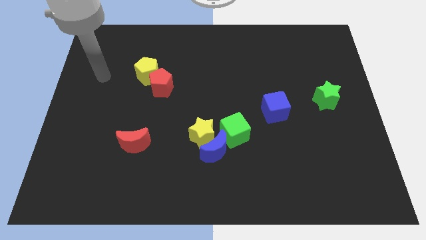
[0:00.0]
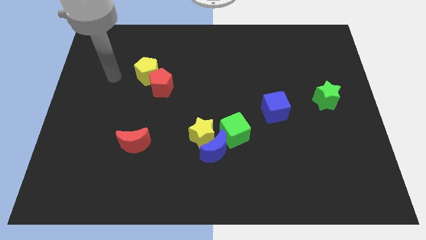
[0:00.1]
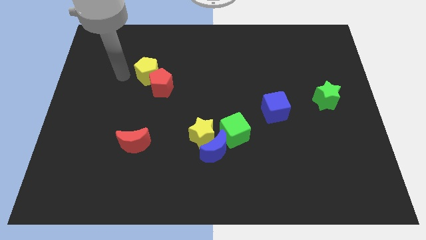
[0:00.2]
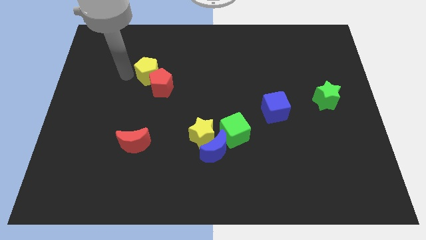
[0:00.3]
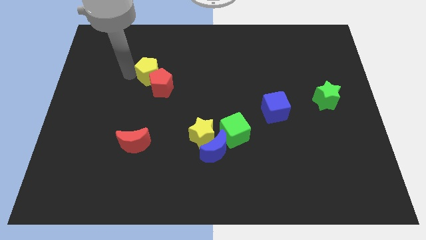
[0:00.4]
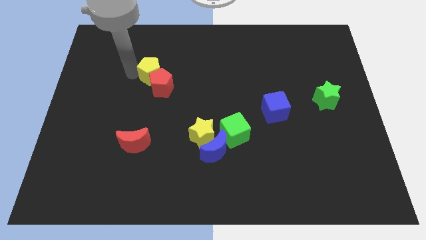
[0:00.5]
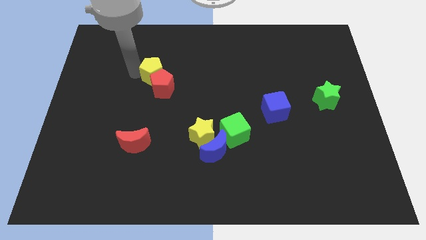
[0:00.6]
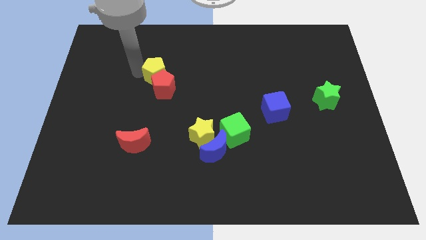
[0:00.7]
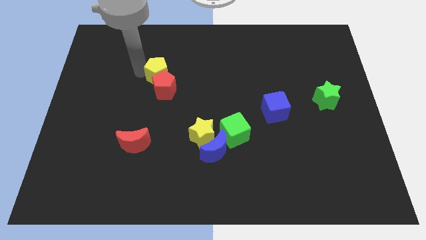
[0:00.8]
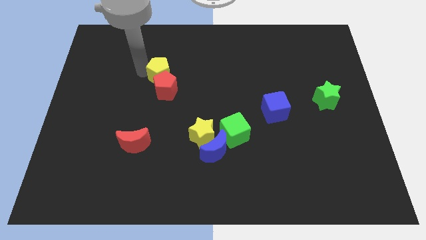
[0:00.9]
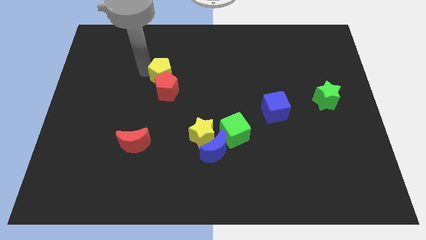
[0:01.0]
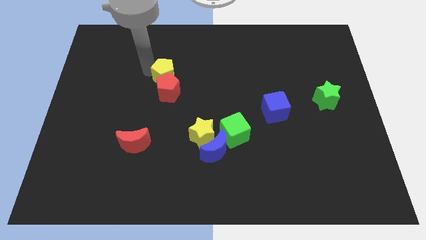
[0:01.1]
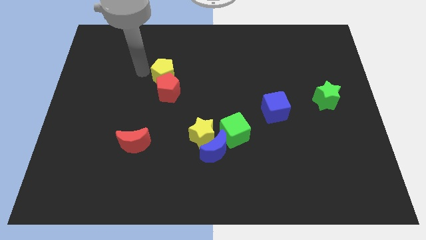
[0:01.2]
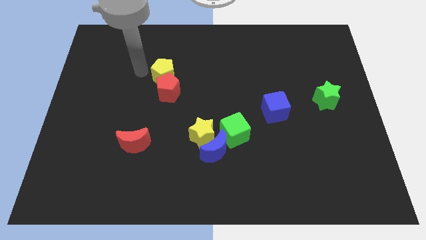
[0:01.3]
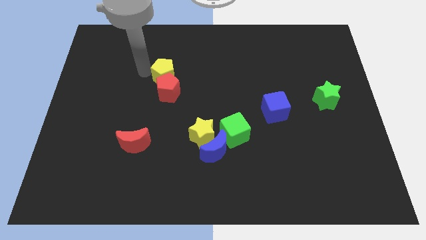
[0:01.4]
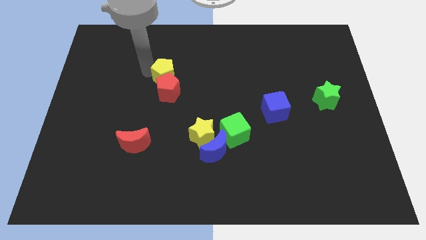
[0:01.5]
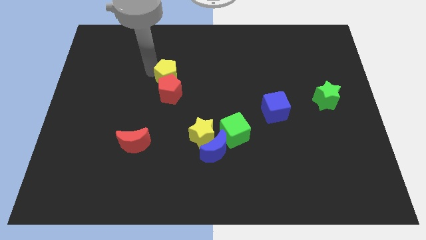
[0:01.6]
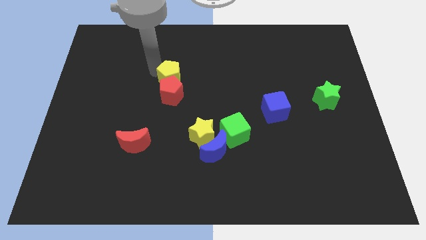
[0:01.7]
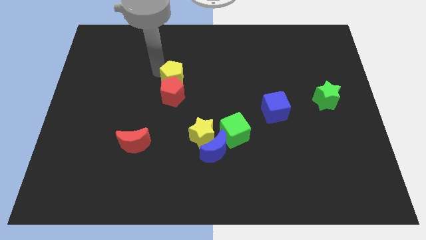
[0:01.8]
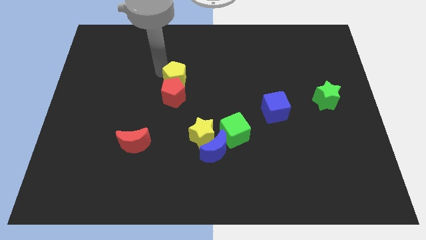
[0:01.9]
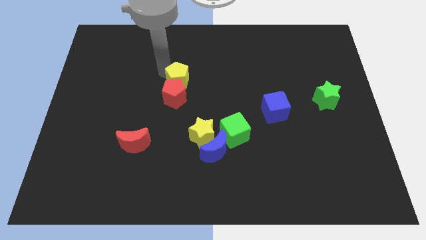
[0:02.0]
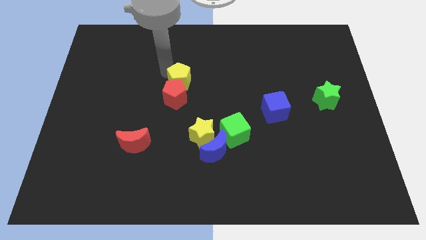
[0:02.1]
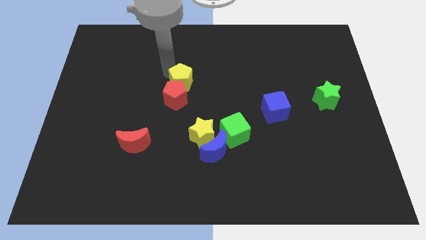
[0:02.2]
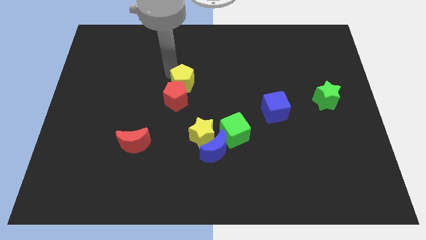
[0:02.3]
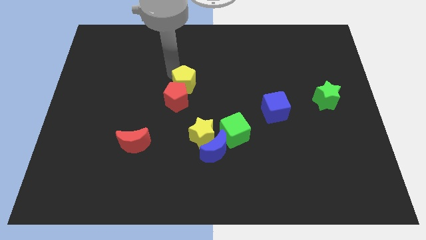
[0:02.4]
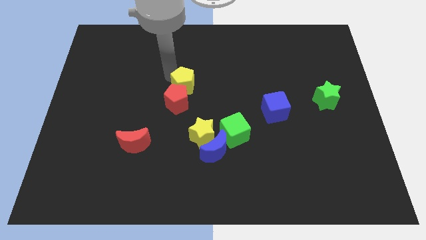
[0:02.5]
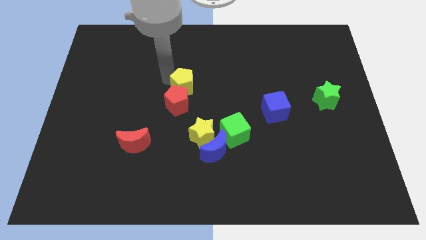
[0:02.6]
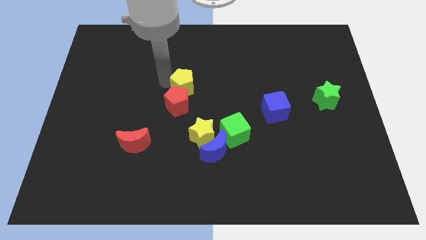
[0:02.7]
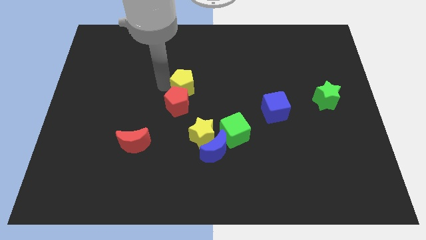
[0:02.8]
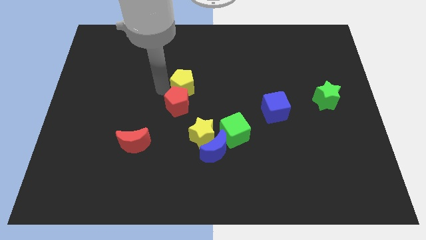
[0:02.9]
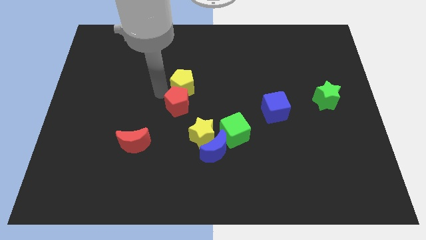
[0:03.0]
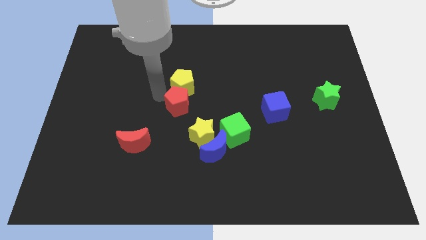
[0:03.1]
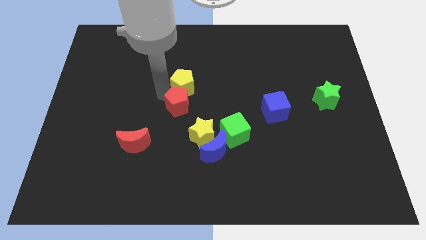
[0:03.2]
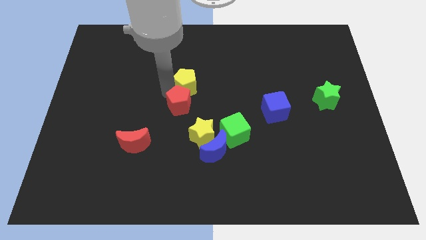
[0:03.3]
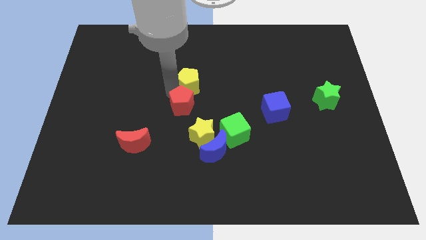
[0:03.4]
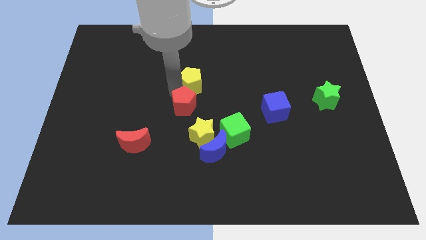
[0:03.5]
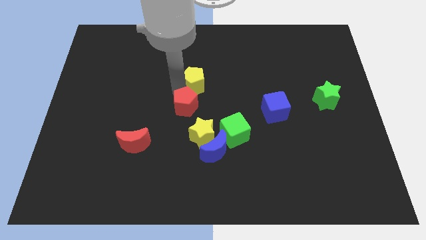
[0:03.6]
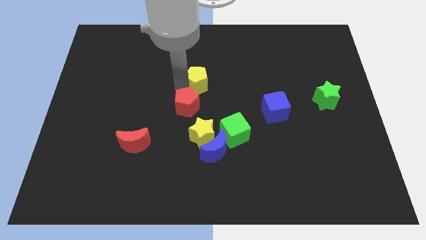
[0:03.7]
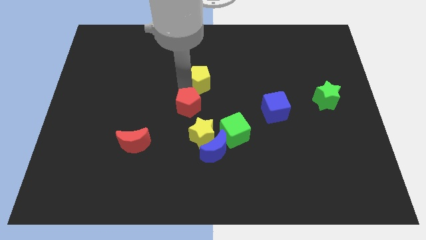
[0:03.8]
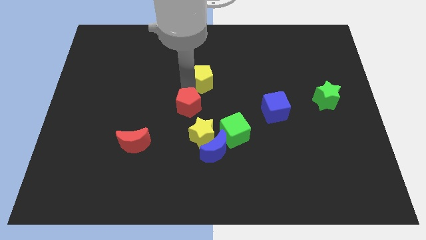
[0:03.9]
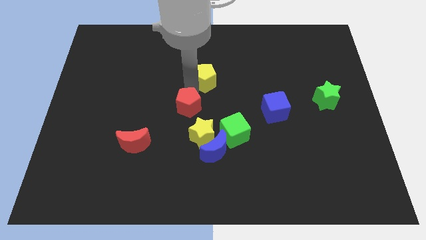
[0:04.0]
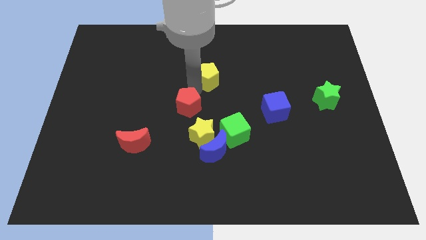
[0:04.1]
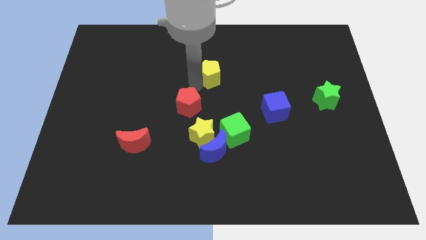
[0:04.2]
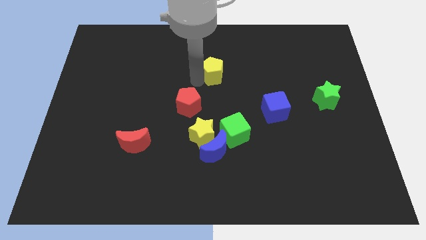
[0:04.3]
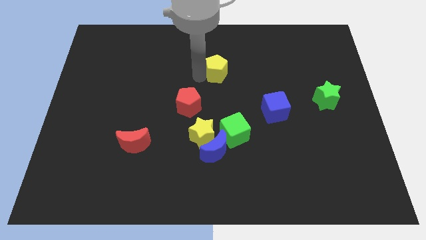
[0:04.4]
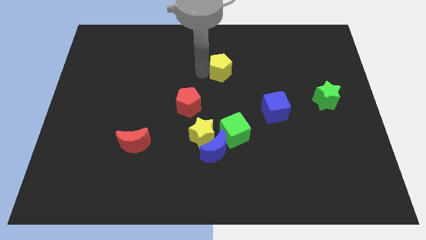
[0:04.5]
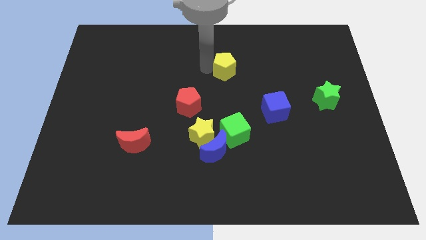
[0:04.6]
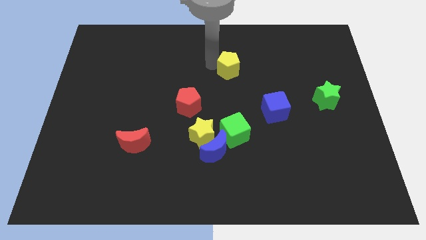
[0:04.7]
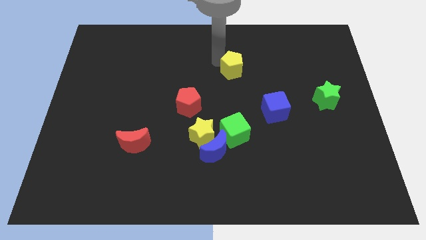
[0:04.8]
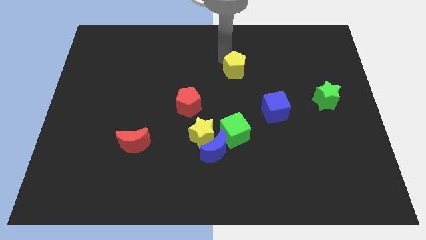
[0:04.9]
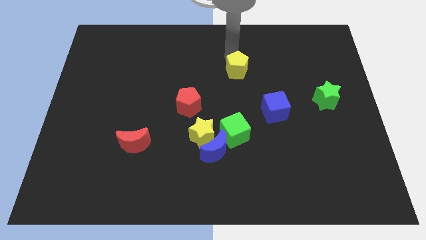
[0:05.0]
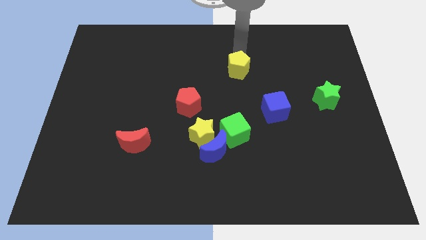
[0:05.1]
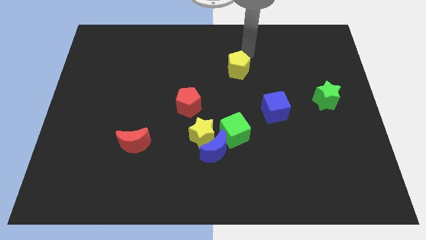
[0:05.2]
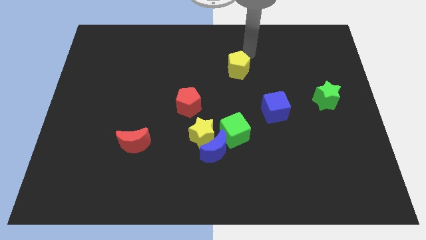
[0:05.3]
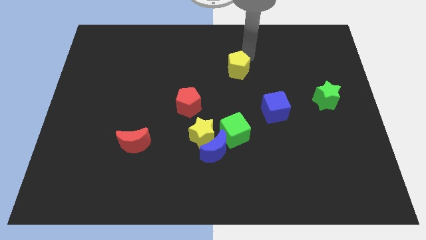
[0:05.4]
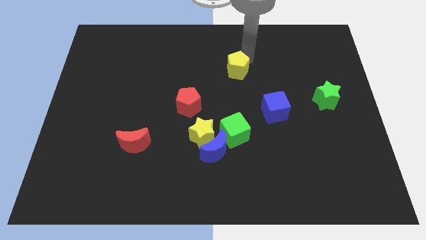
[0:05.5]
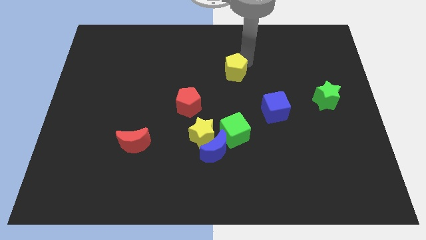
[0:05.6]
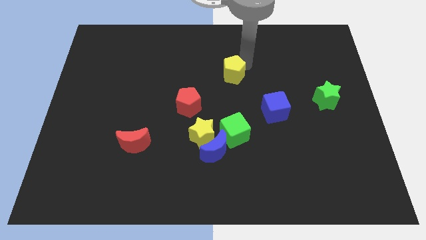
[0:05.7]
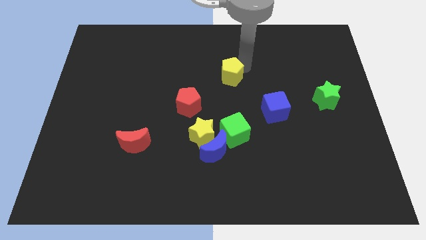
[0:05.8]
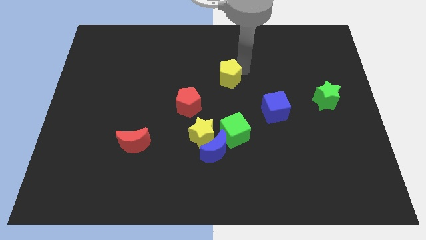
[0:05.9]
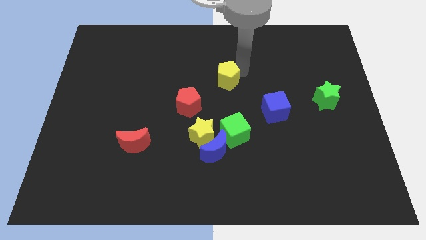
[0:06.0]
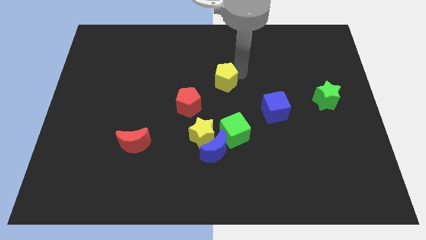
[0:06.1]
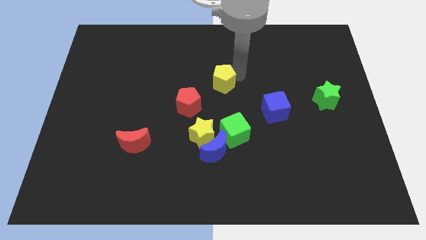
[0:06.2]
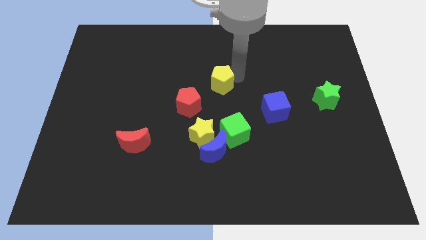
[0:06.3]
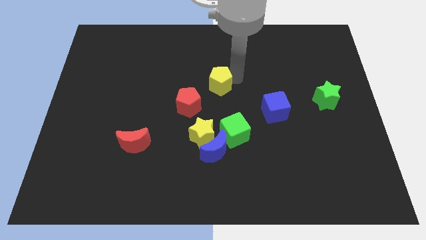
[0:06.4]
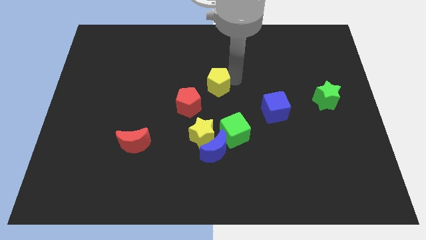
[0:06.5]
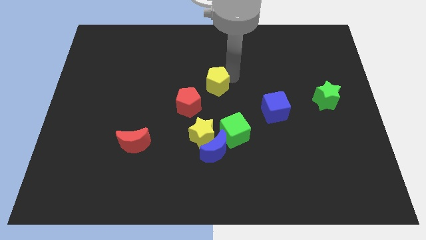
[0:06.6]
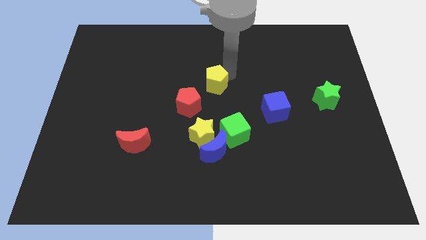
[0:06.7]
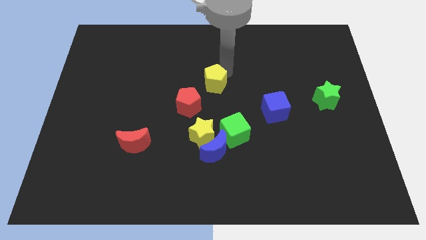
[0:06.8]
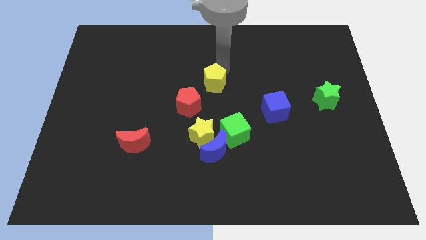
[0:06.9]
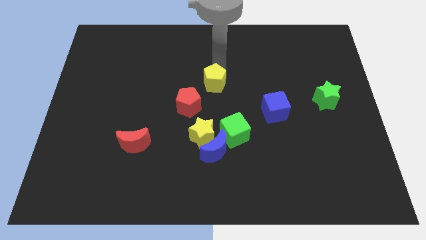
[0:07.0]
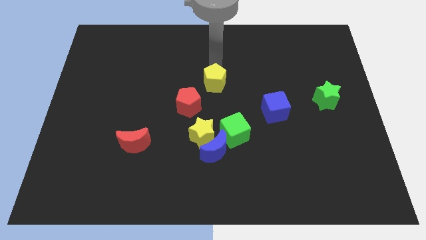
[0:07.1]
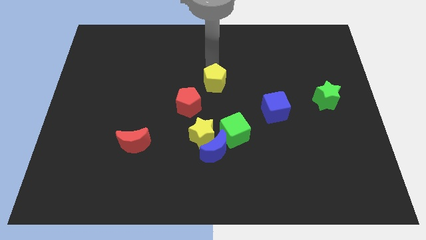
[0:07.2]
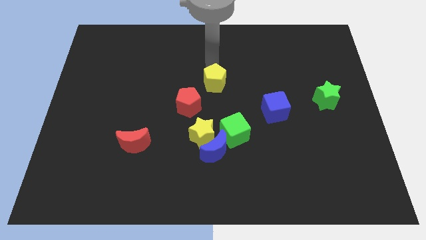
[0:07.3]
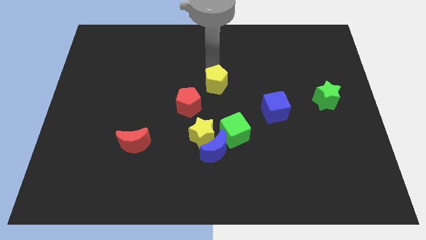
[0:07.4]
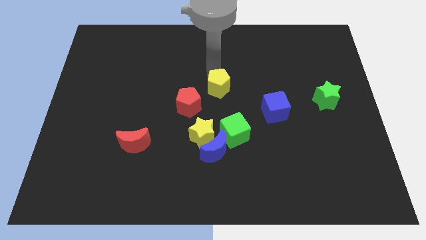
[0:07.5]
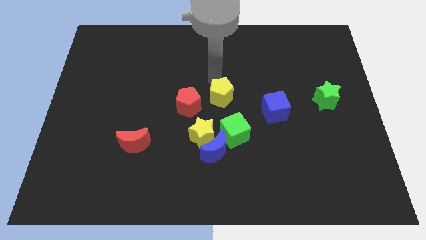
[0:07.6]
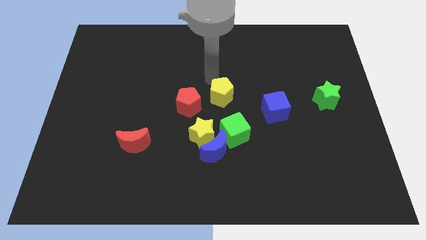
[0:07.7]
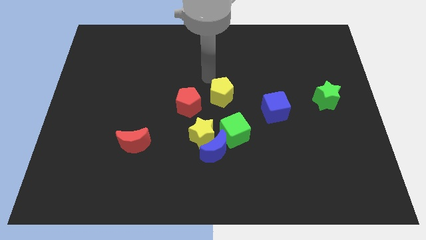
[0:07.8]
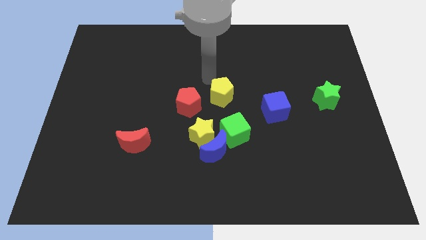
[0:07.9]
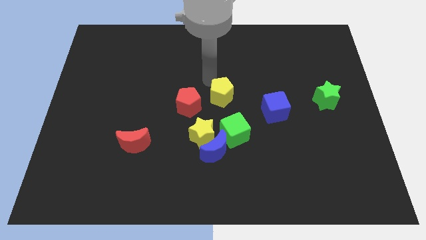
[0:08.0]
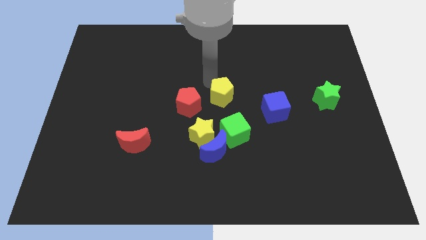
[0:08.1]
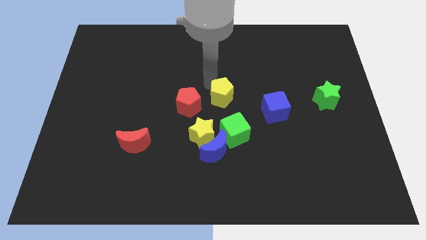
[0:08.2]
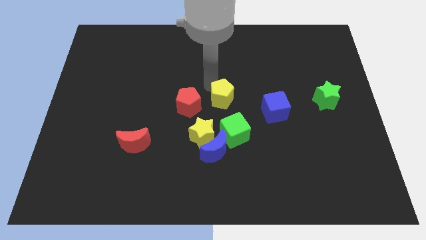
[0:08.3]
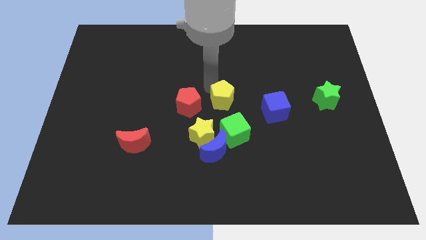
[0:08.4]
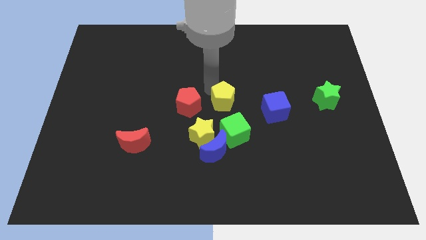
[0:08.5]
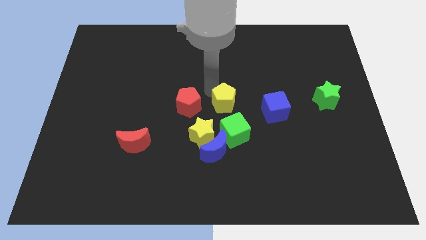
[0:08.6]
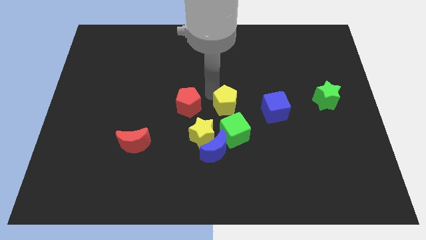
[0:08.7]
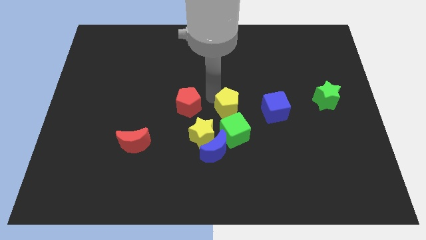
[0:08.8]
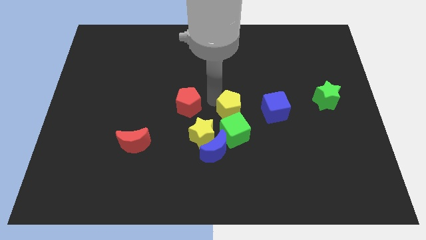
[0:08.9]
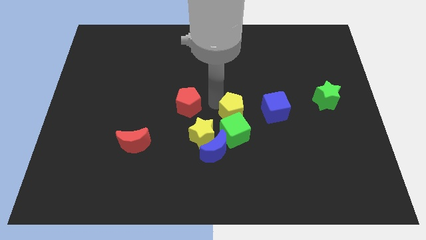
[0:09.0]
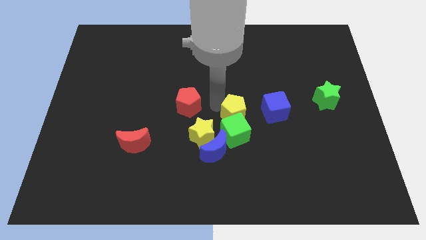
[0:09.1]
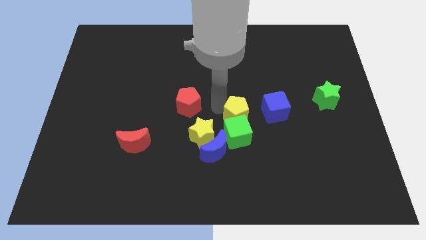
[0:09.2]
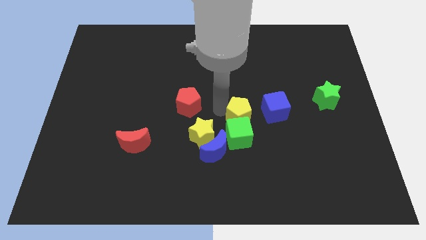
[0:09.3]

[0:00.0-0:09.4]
put the yellow pentagon to the bottom left side of the blue cube
